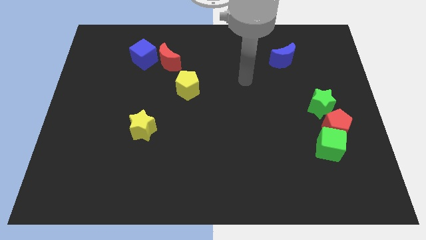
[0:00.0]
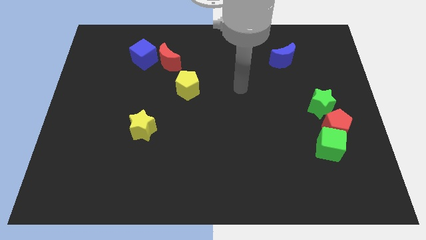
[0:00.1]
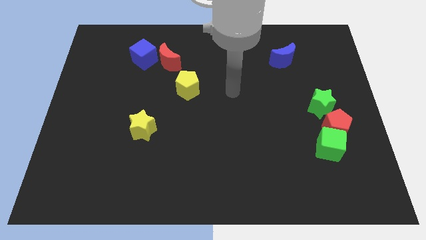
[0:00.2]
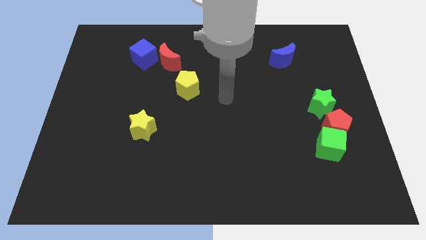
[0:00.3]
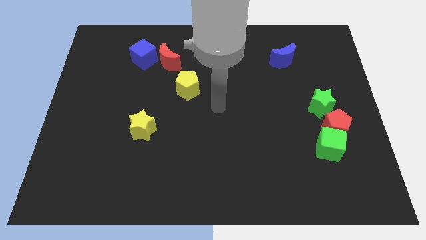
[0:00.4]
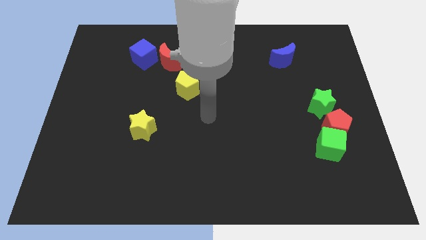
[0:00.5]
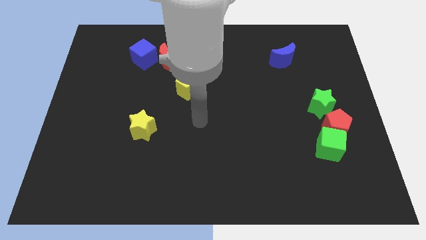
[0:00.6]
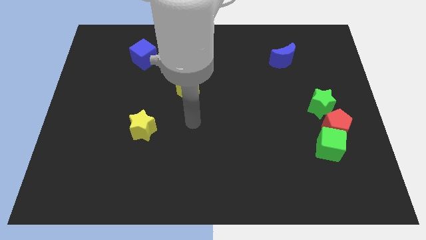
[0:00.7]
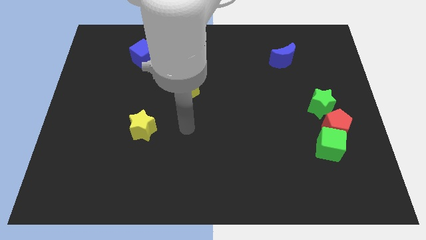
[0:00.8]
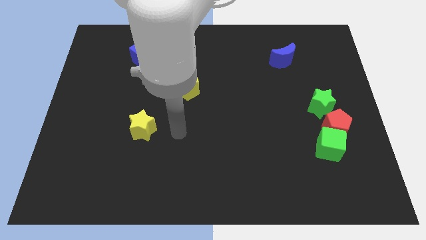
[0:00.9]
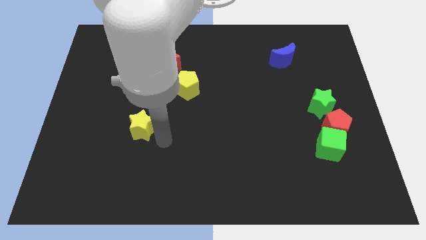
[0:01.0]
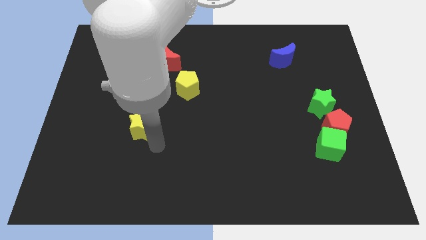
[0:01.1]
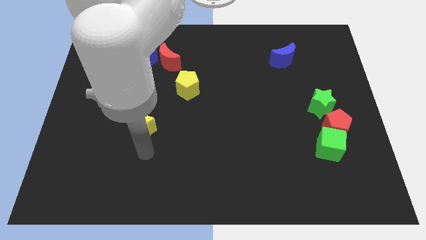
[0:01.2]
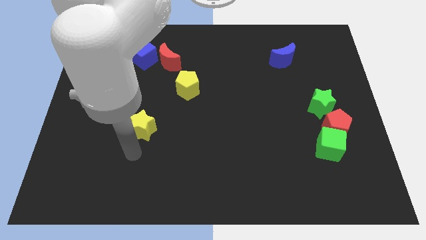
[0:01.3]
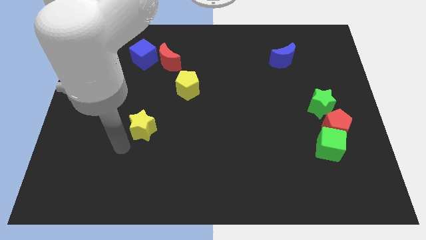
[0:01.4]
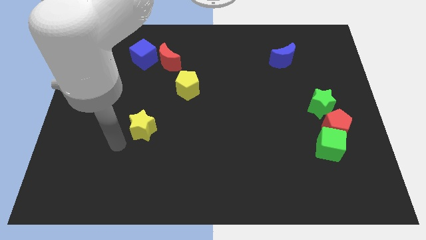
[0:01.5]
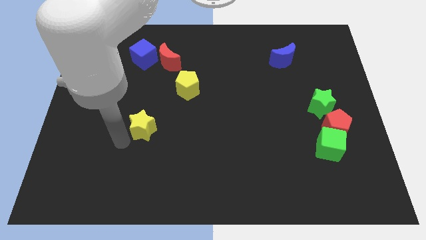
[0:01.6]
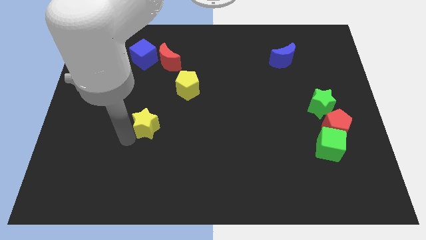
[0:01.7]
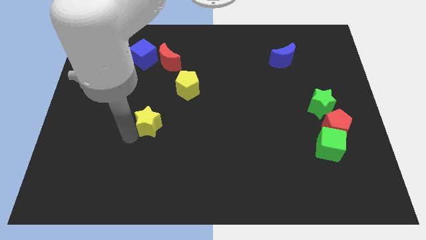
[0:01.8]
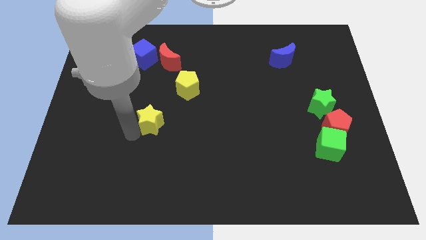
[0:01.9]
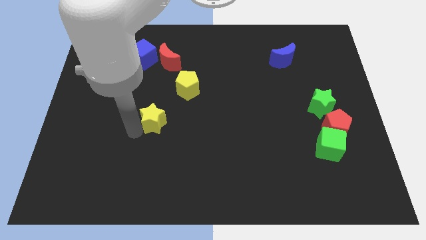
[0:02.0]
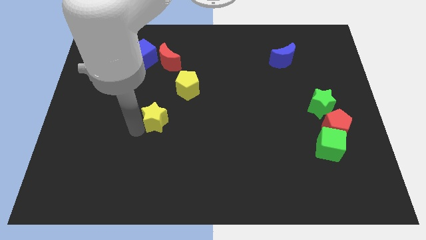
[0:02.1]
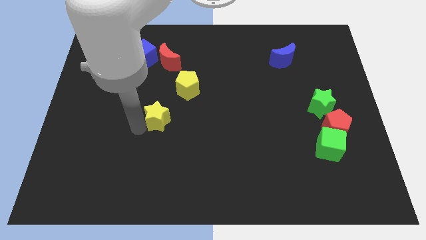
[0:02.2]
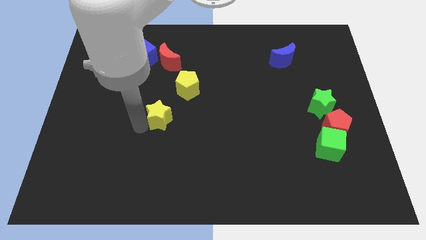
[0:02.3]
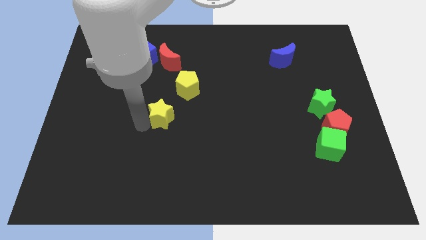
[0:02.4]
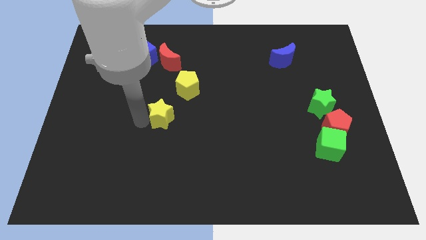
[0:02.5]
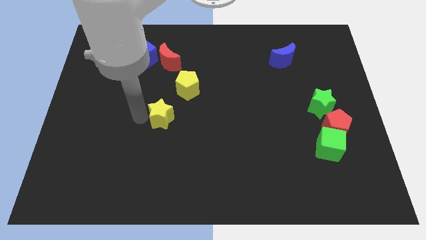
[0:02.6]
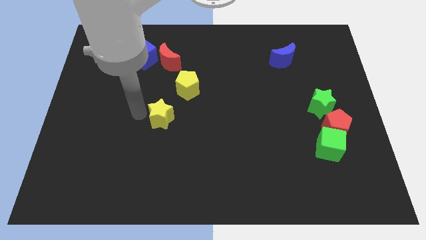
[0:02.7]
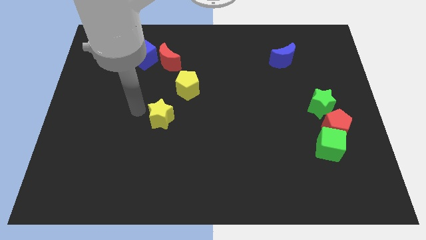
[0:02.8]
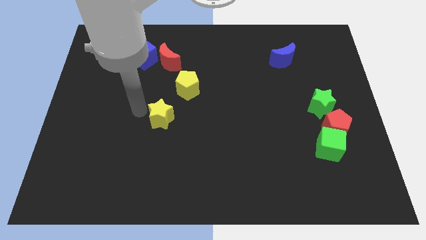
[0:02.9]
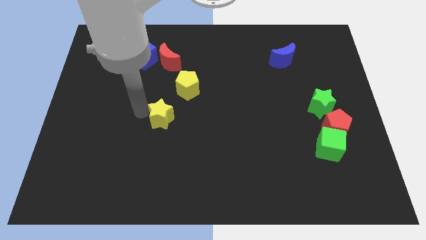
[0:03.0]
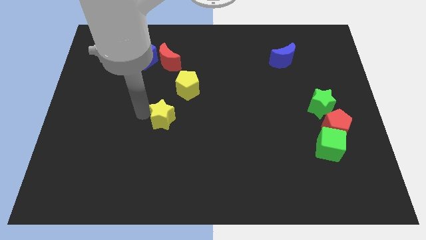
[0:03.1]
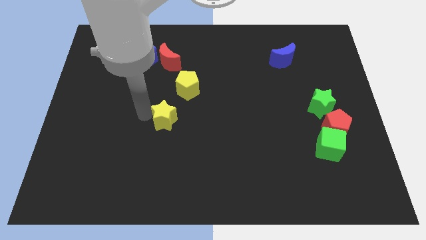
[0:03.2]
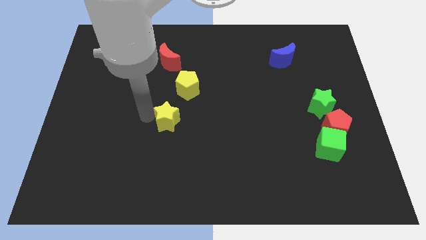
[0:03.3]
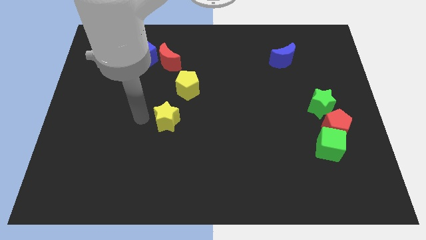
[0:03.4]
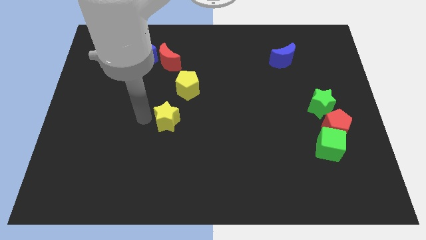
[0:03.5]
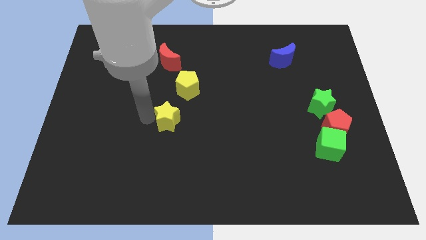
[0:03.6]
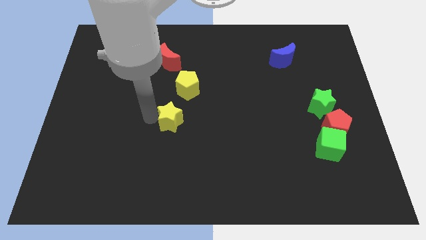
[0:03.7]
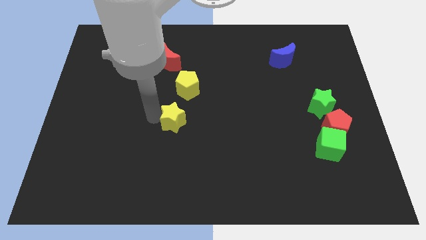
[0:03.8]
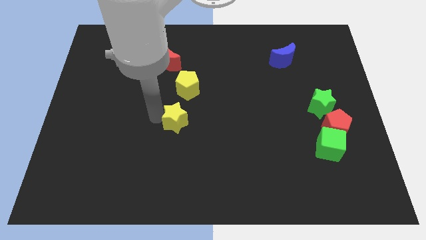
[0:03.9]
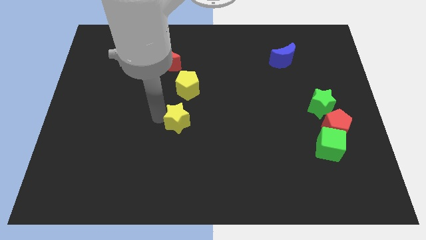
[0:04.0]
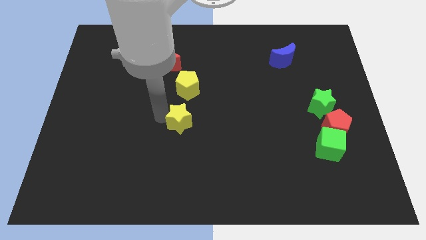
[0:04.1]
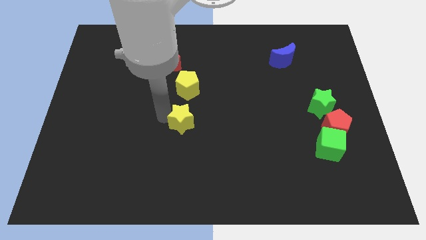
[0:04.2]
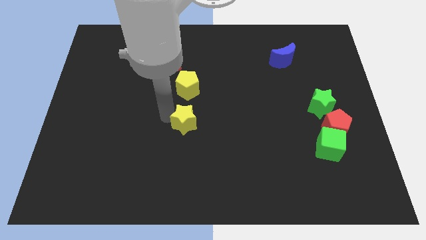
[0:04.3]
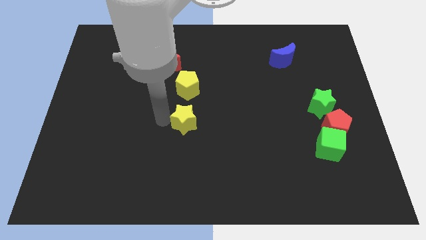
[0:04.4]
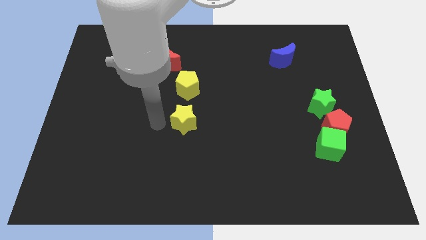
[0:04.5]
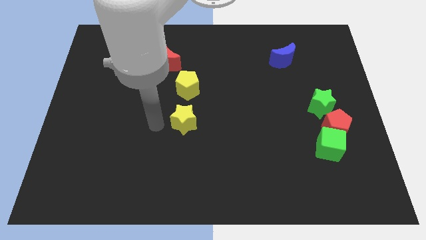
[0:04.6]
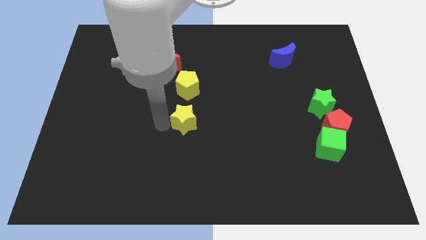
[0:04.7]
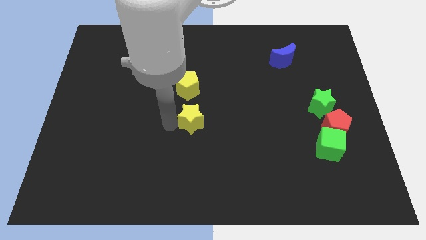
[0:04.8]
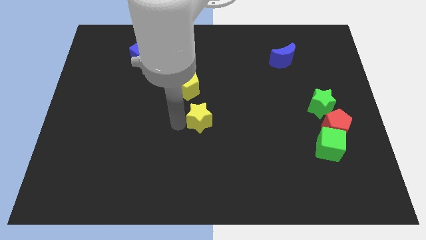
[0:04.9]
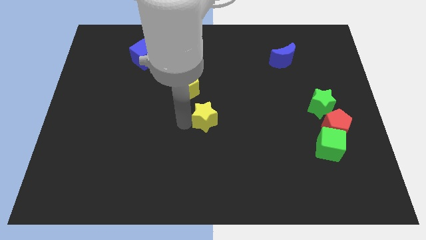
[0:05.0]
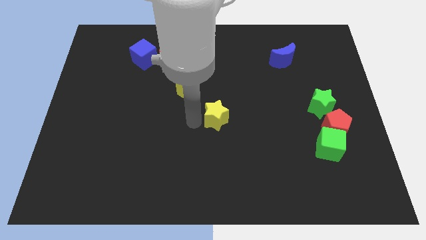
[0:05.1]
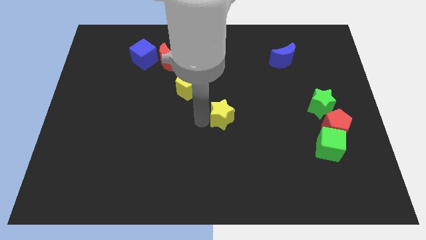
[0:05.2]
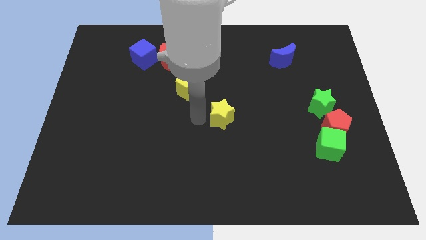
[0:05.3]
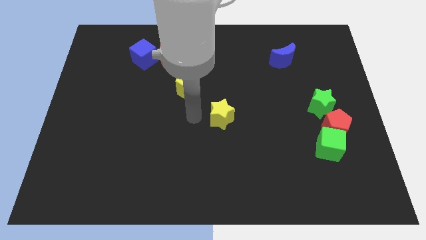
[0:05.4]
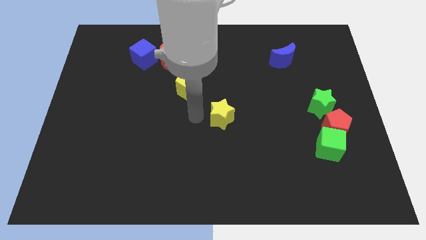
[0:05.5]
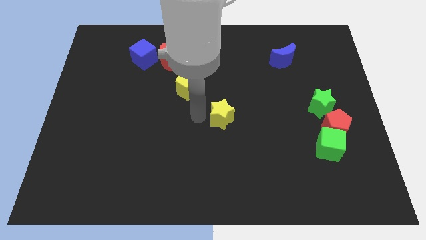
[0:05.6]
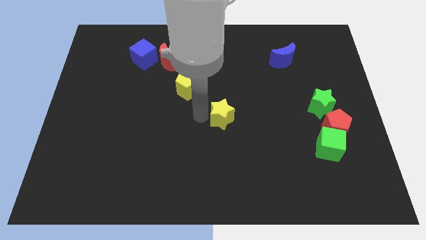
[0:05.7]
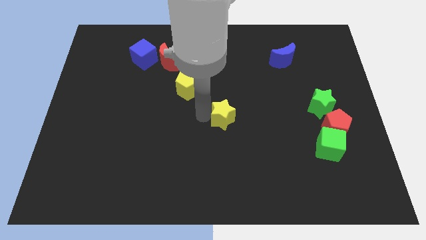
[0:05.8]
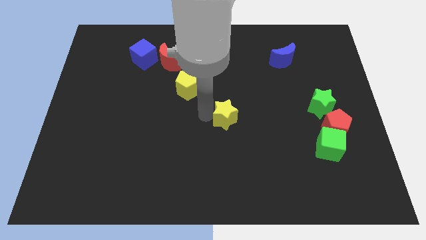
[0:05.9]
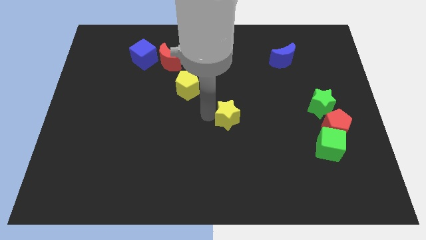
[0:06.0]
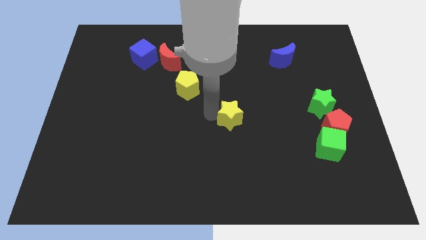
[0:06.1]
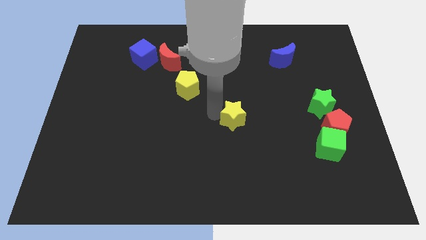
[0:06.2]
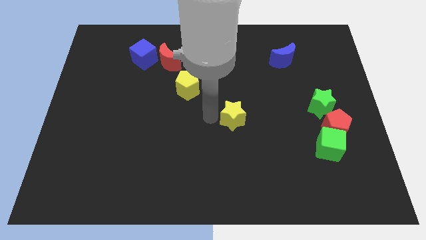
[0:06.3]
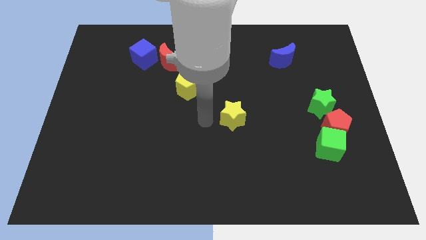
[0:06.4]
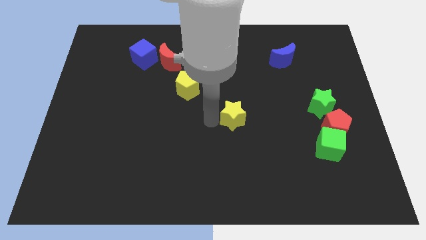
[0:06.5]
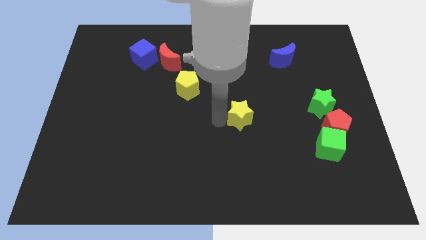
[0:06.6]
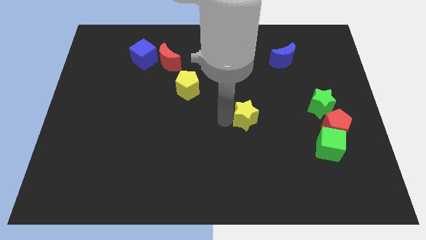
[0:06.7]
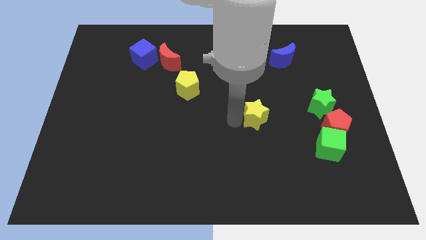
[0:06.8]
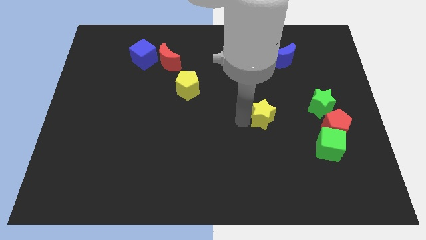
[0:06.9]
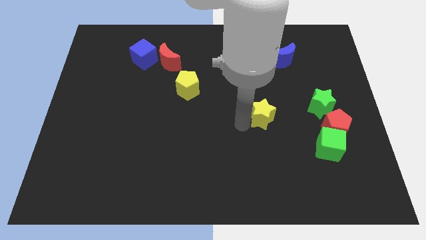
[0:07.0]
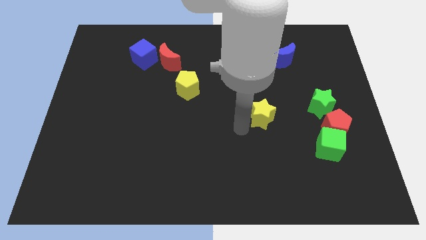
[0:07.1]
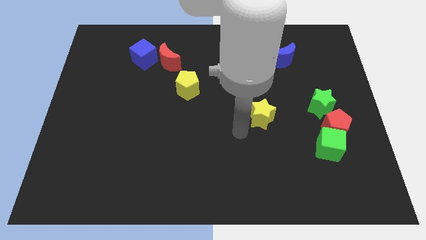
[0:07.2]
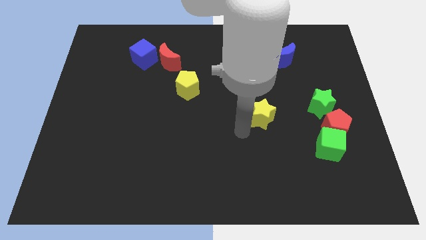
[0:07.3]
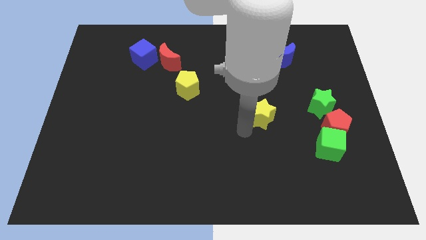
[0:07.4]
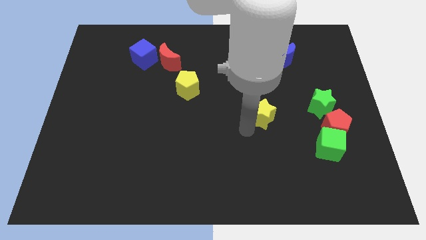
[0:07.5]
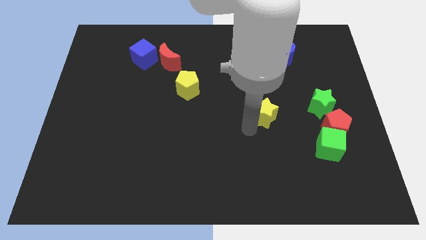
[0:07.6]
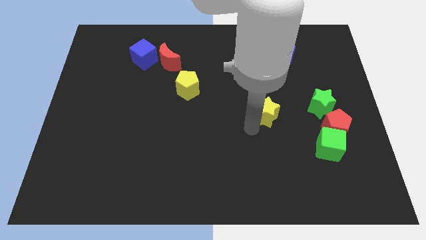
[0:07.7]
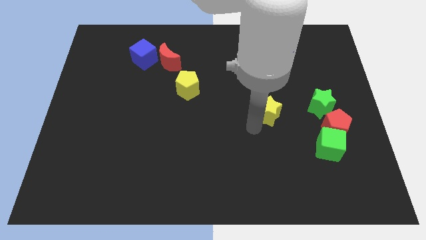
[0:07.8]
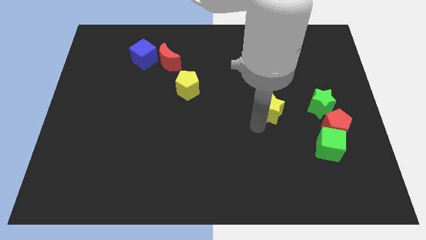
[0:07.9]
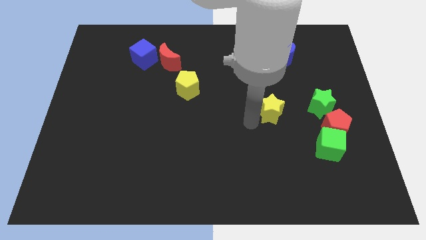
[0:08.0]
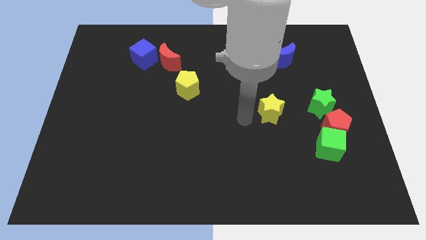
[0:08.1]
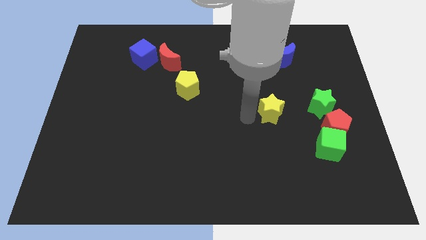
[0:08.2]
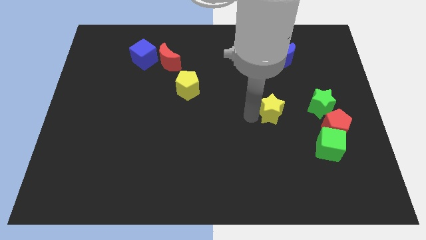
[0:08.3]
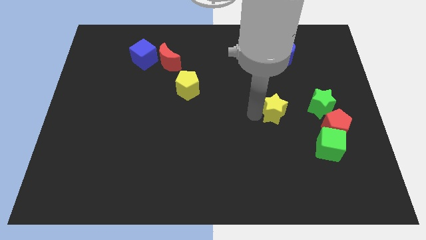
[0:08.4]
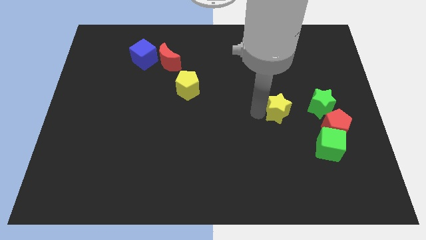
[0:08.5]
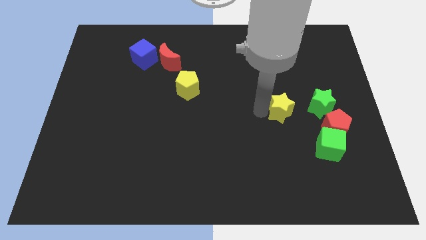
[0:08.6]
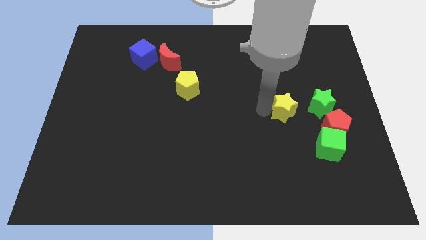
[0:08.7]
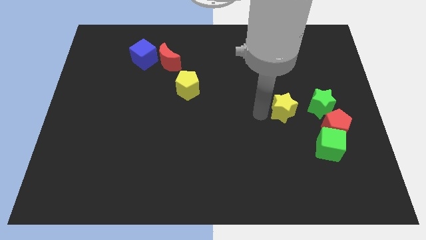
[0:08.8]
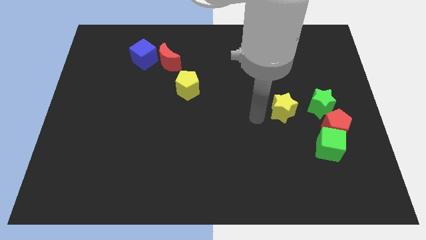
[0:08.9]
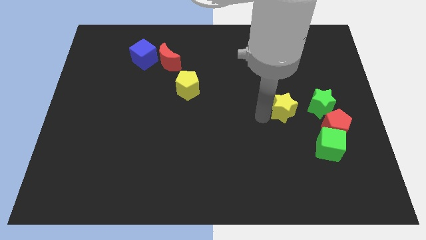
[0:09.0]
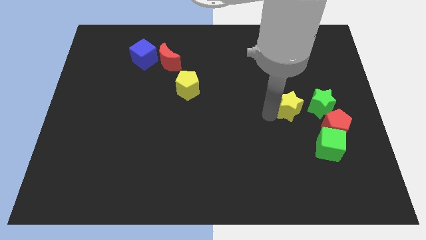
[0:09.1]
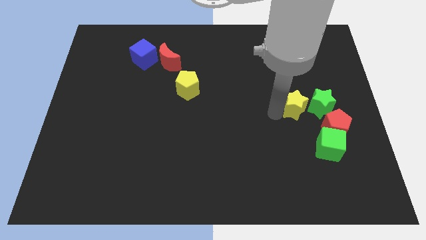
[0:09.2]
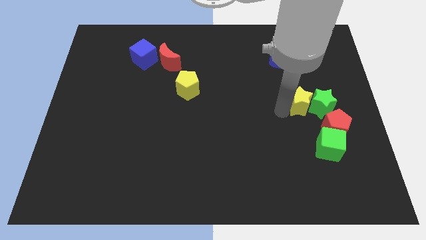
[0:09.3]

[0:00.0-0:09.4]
slide the yellow star close to the green star
